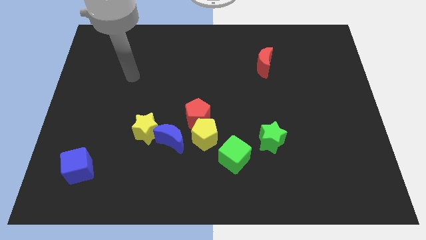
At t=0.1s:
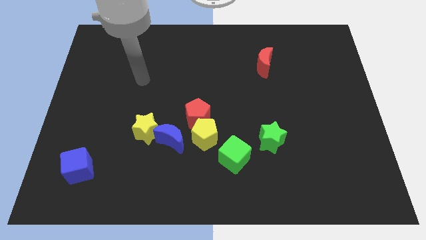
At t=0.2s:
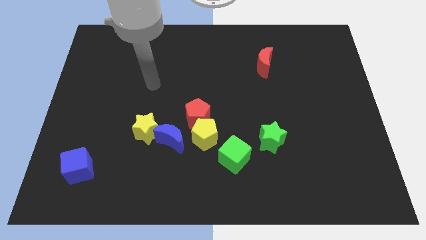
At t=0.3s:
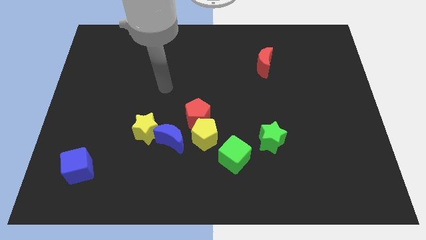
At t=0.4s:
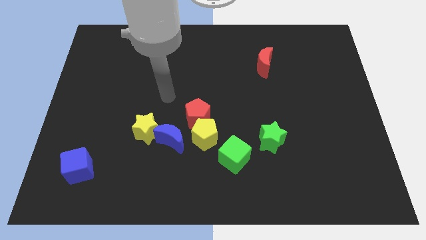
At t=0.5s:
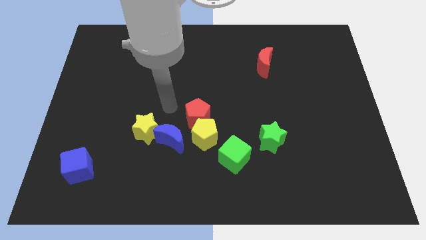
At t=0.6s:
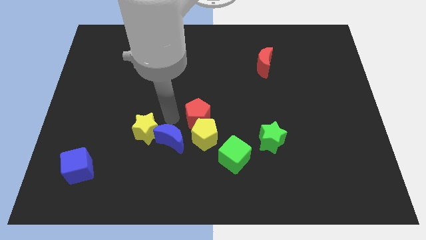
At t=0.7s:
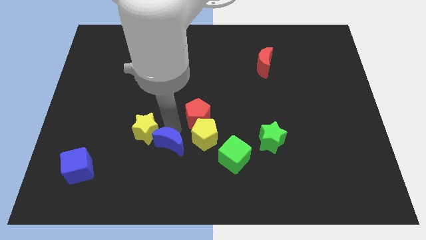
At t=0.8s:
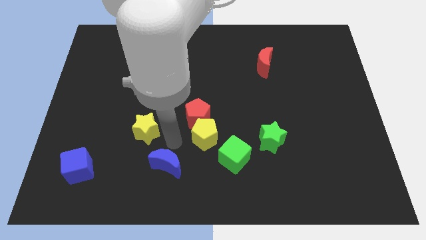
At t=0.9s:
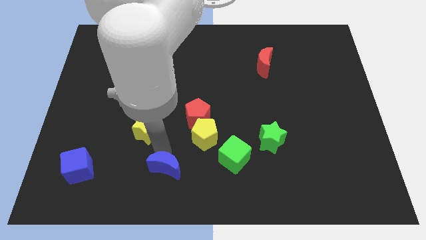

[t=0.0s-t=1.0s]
pull the yellow star apart from the blue moon

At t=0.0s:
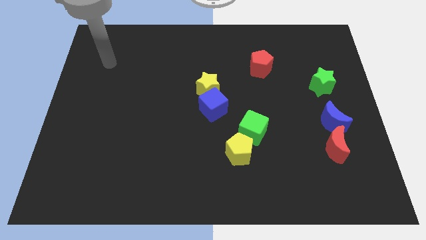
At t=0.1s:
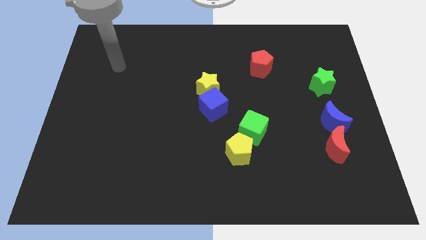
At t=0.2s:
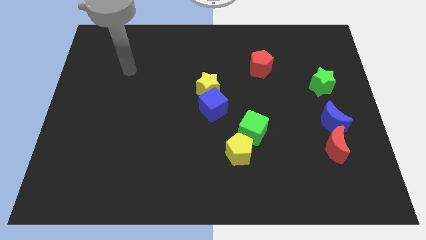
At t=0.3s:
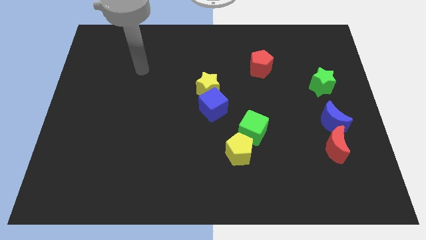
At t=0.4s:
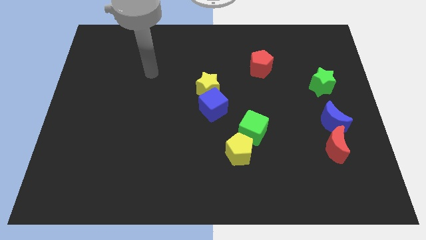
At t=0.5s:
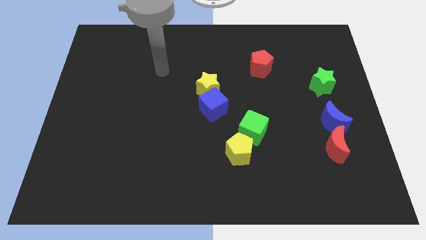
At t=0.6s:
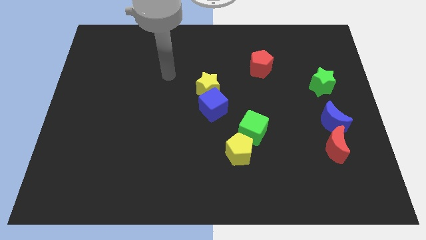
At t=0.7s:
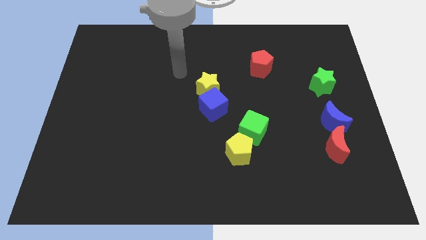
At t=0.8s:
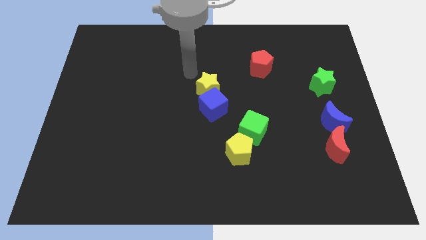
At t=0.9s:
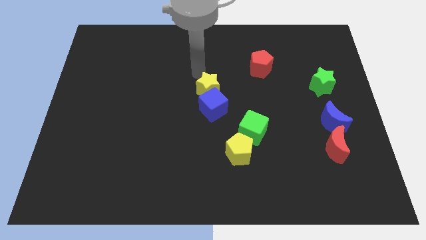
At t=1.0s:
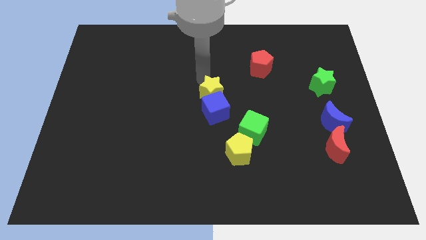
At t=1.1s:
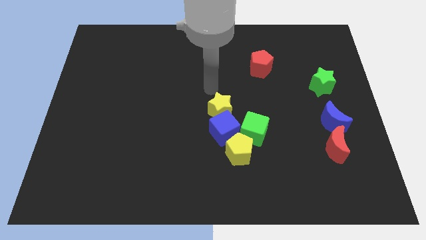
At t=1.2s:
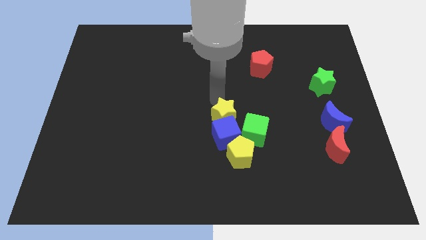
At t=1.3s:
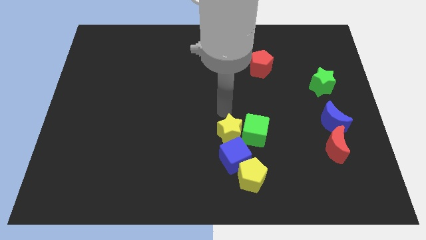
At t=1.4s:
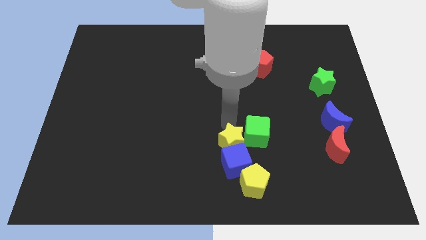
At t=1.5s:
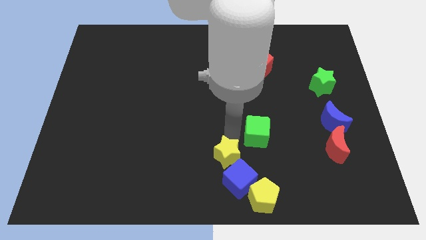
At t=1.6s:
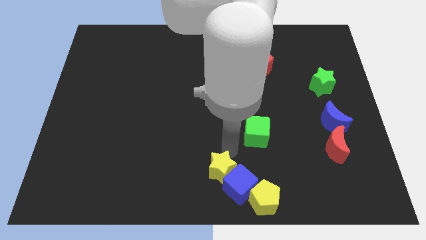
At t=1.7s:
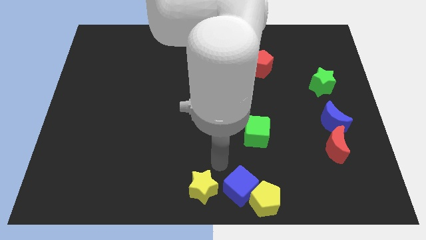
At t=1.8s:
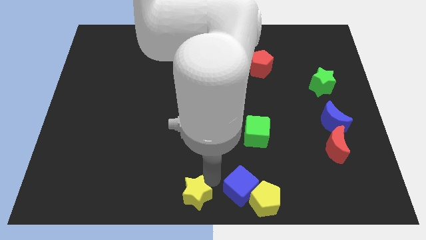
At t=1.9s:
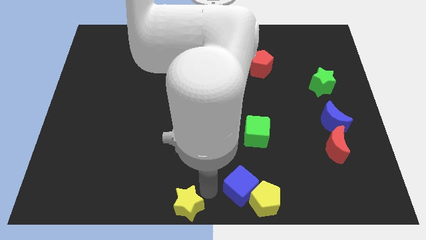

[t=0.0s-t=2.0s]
separate the blue cube from the yellow star

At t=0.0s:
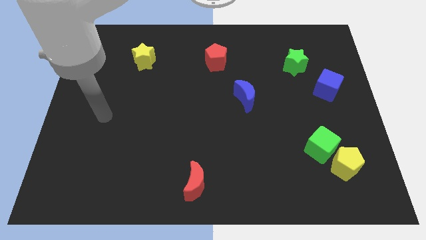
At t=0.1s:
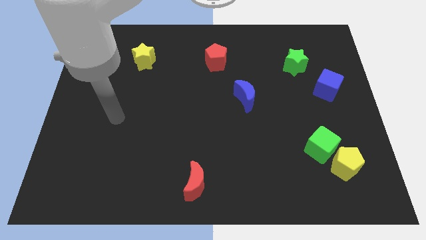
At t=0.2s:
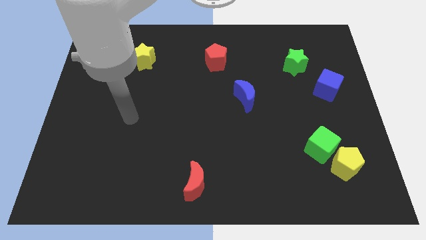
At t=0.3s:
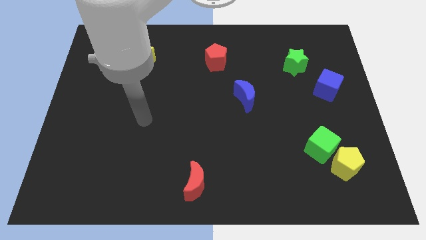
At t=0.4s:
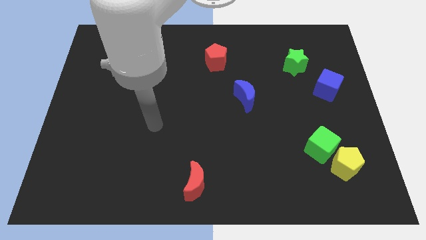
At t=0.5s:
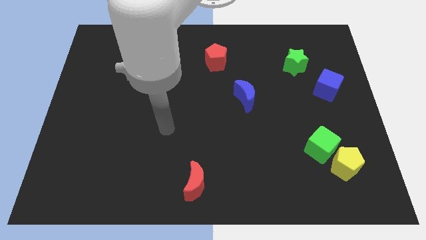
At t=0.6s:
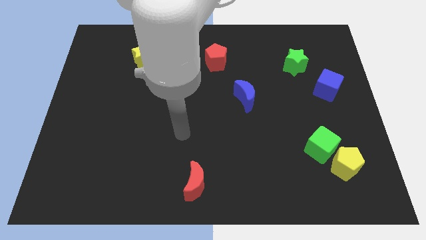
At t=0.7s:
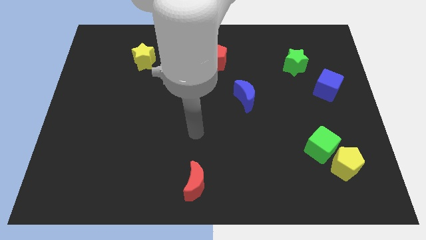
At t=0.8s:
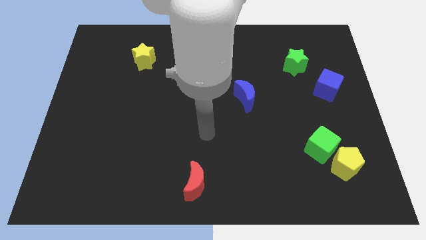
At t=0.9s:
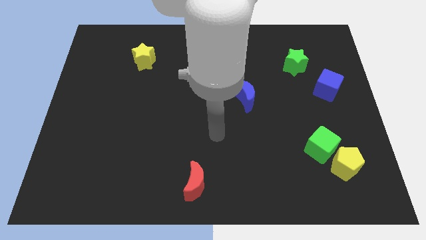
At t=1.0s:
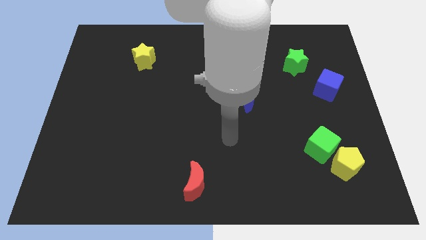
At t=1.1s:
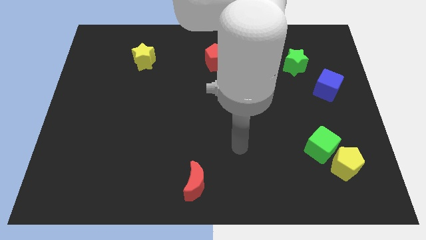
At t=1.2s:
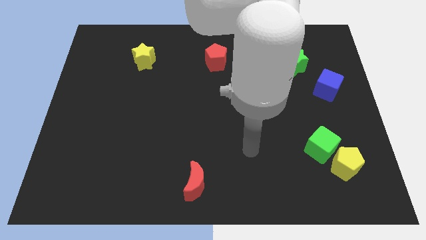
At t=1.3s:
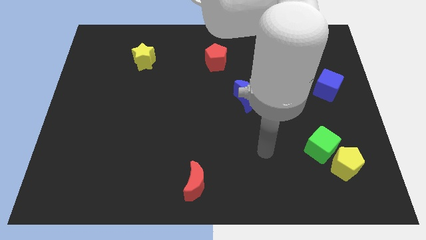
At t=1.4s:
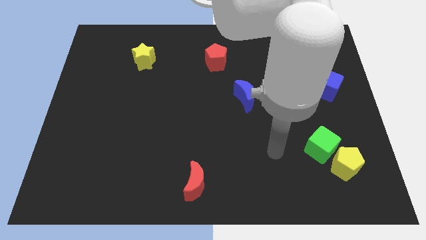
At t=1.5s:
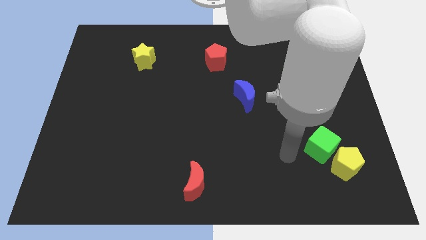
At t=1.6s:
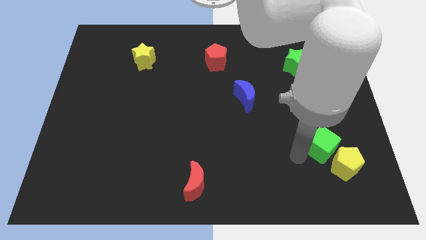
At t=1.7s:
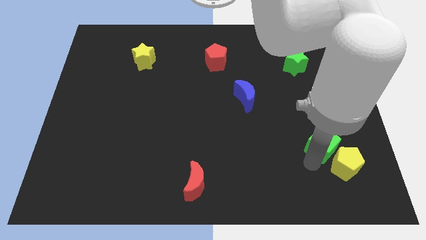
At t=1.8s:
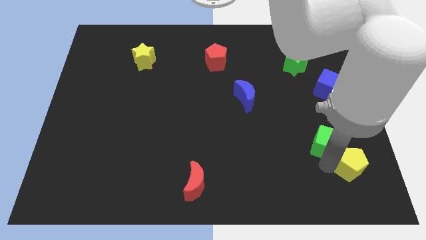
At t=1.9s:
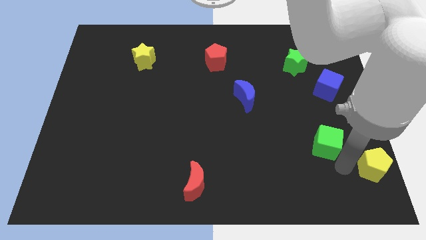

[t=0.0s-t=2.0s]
separate the green cube from the yellow pentagon

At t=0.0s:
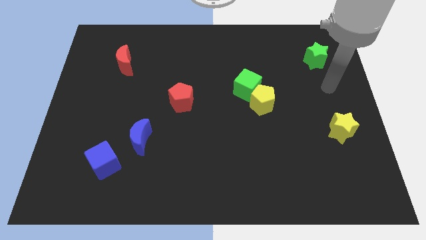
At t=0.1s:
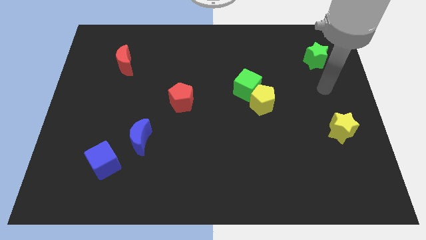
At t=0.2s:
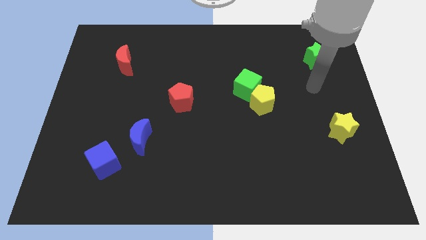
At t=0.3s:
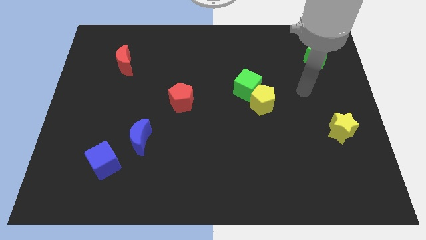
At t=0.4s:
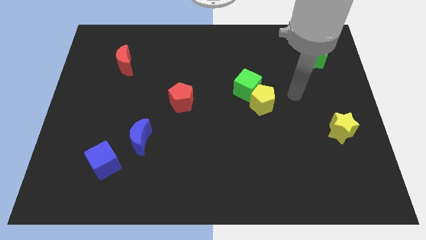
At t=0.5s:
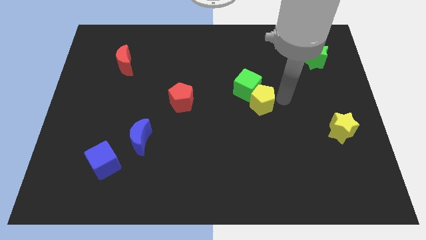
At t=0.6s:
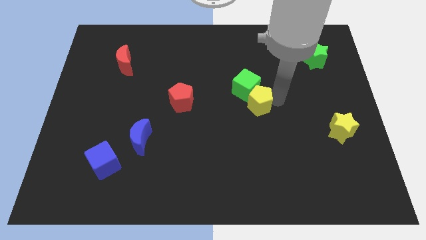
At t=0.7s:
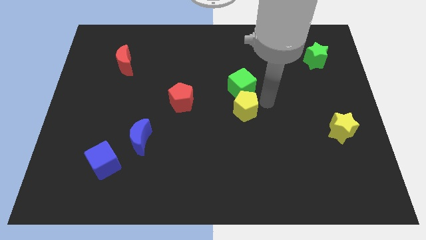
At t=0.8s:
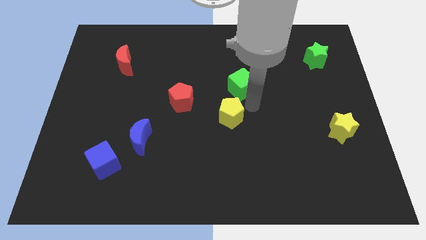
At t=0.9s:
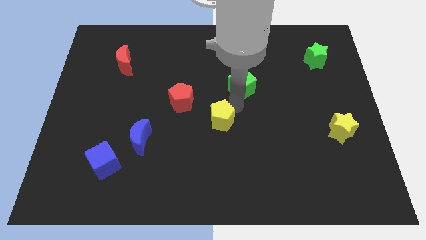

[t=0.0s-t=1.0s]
pull the green cube apart from the yellow pentagon

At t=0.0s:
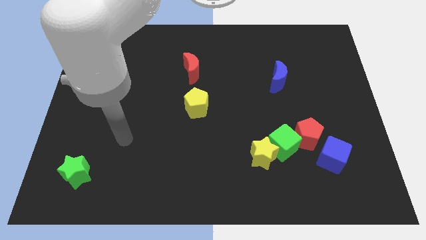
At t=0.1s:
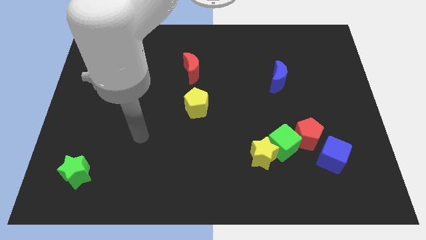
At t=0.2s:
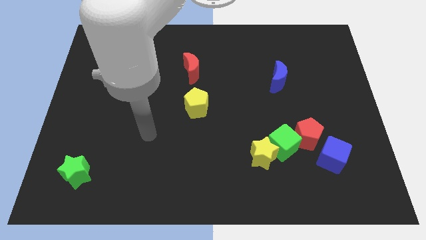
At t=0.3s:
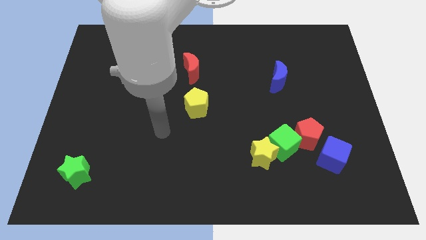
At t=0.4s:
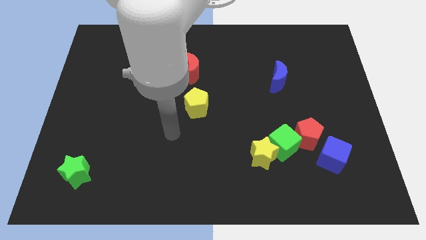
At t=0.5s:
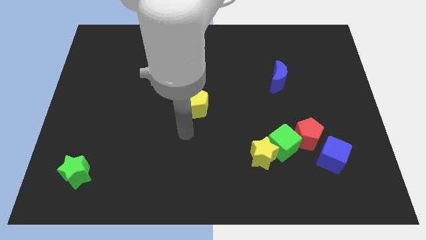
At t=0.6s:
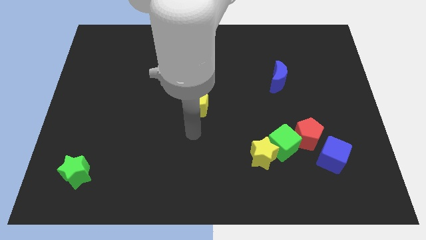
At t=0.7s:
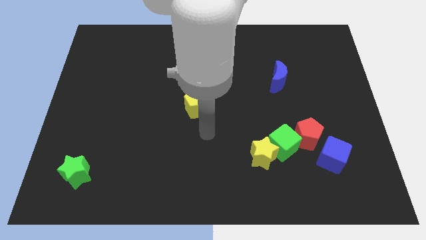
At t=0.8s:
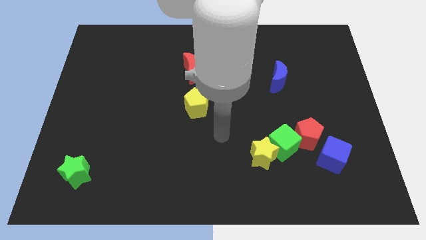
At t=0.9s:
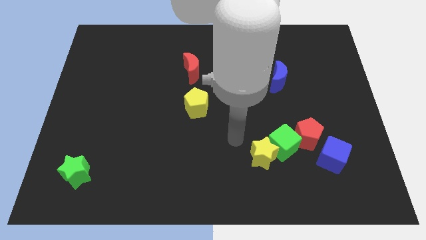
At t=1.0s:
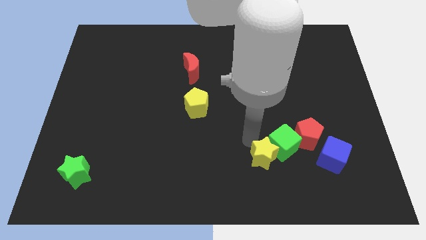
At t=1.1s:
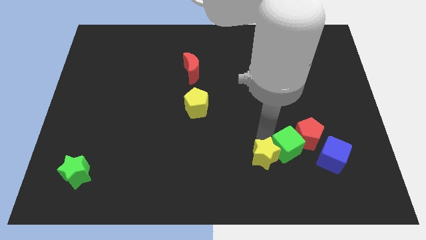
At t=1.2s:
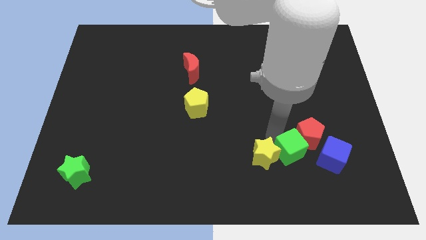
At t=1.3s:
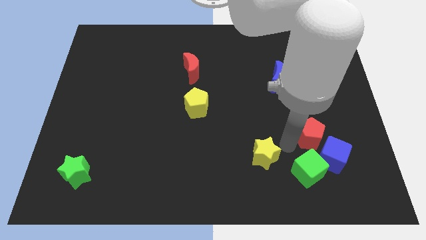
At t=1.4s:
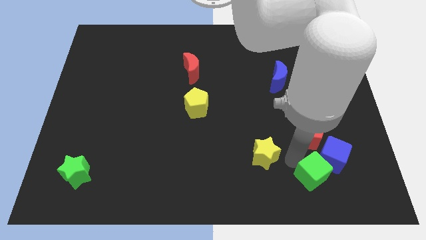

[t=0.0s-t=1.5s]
separate the yellow star from the green cube

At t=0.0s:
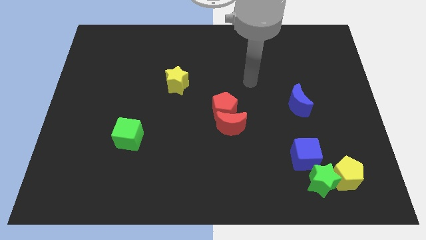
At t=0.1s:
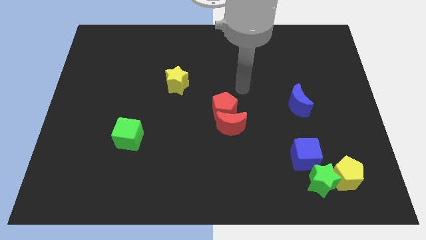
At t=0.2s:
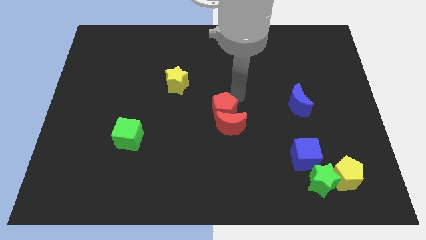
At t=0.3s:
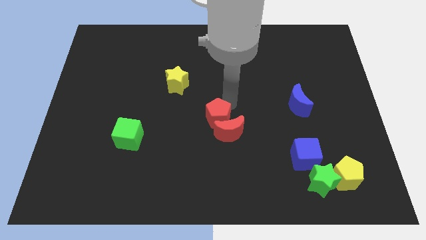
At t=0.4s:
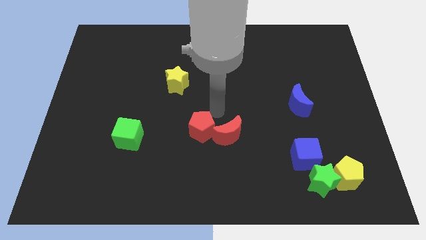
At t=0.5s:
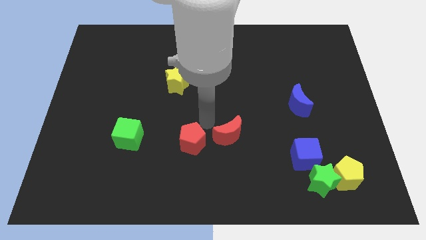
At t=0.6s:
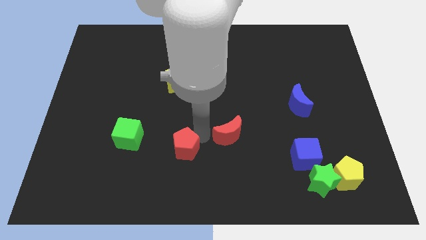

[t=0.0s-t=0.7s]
move the red moon away from the red pentagon

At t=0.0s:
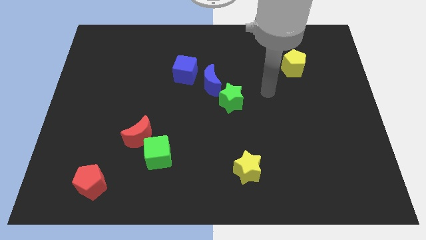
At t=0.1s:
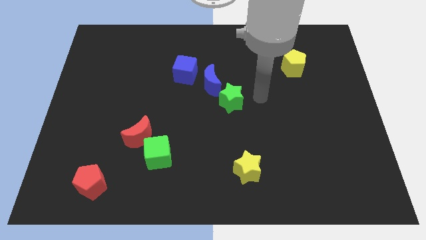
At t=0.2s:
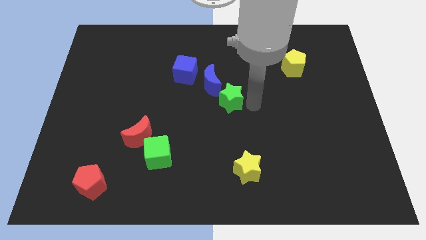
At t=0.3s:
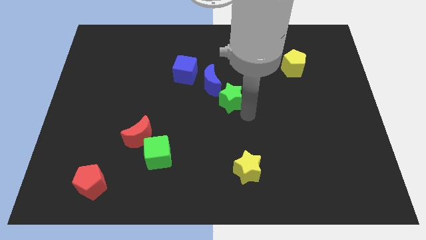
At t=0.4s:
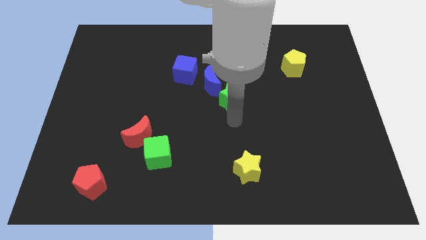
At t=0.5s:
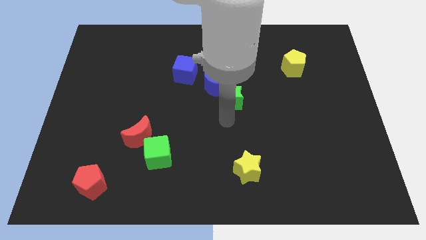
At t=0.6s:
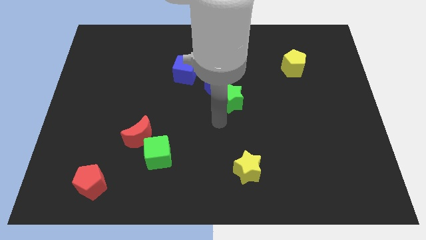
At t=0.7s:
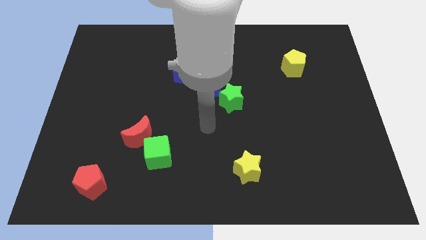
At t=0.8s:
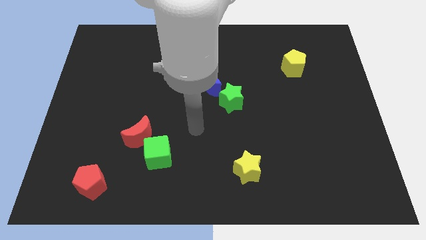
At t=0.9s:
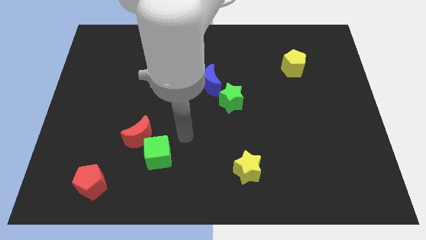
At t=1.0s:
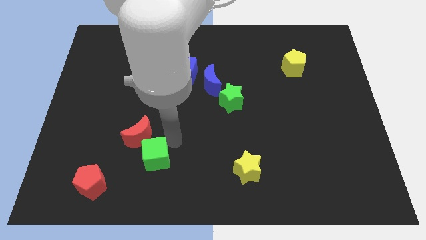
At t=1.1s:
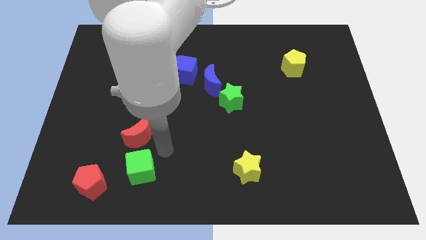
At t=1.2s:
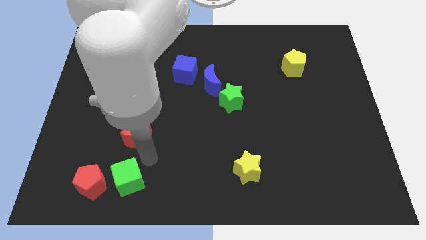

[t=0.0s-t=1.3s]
separate the red moon from the green cube
